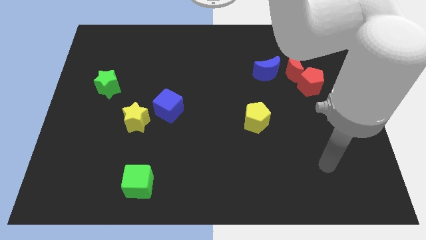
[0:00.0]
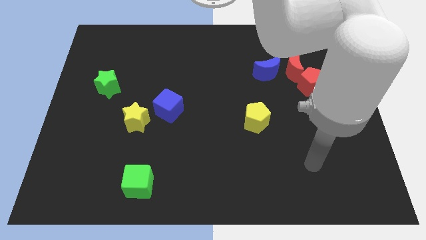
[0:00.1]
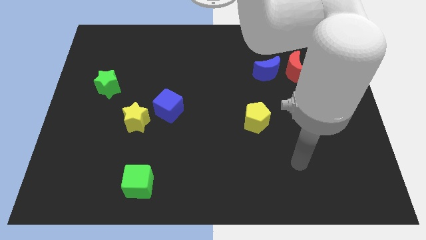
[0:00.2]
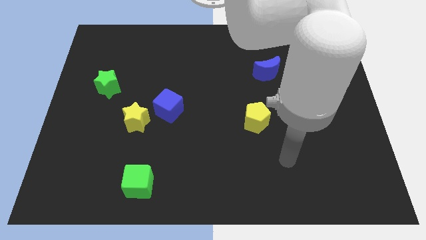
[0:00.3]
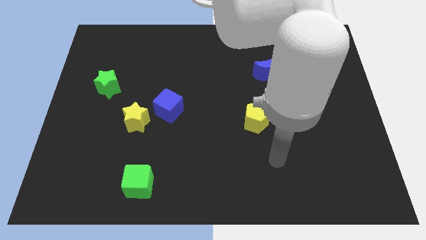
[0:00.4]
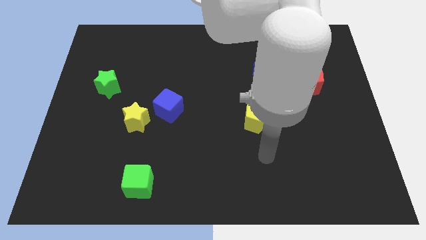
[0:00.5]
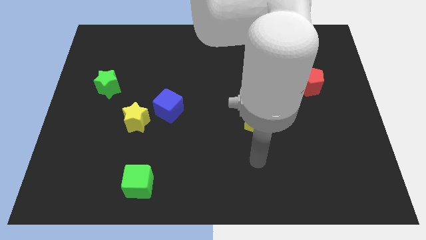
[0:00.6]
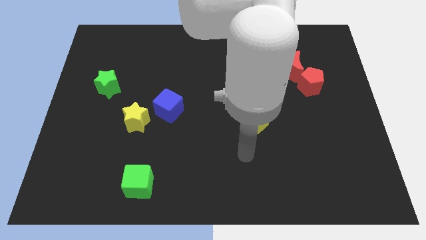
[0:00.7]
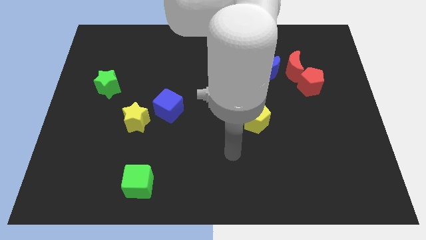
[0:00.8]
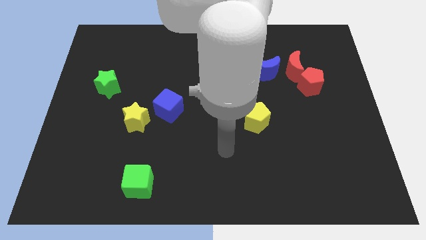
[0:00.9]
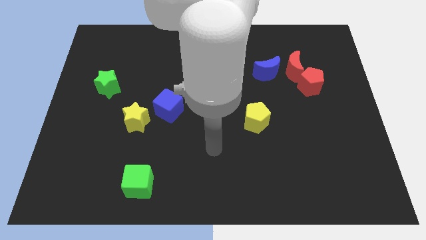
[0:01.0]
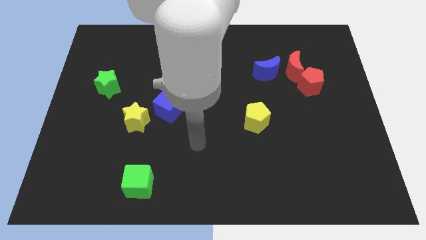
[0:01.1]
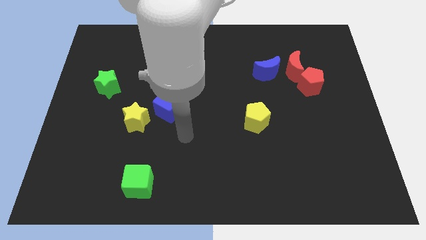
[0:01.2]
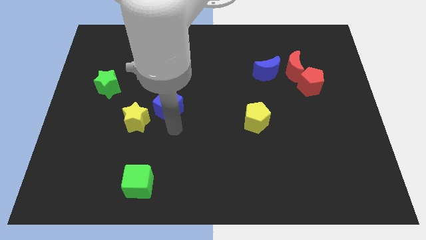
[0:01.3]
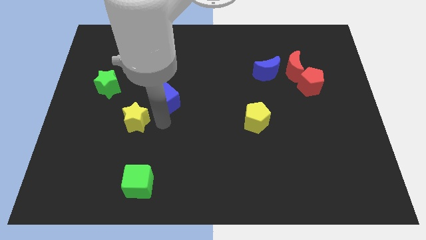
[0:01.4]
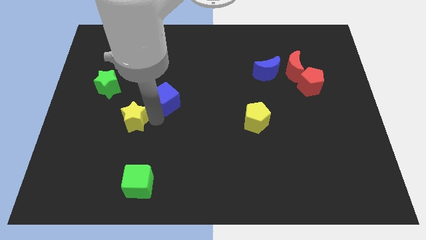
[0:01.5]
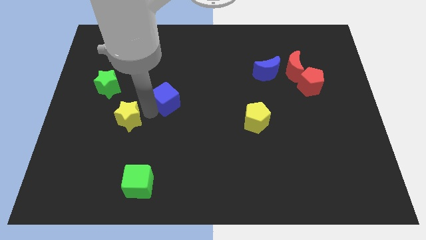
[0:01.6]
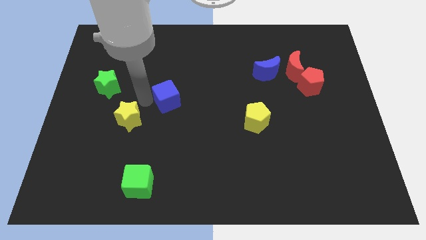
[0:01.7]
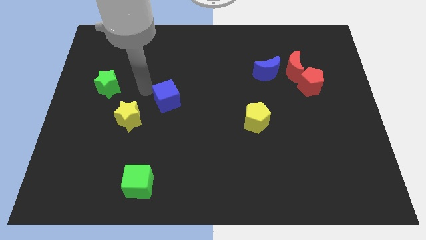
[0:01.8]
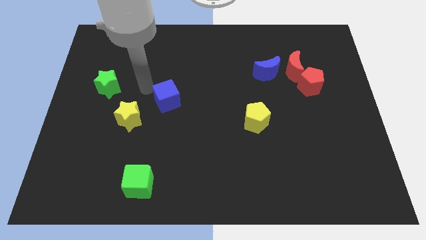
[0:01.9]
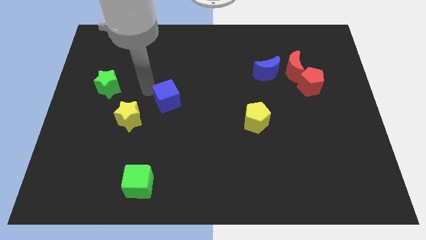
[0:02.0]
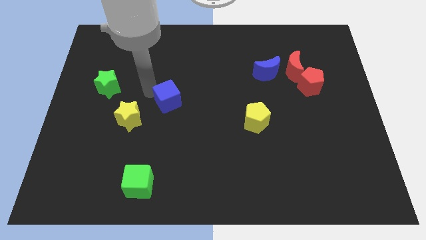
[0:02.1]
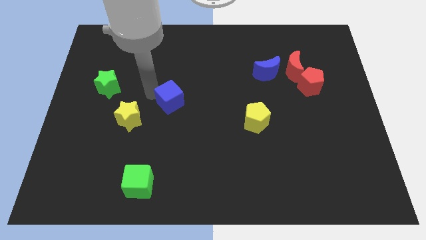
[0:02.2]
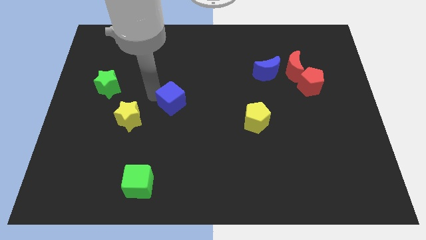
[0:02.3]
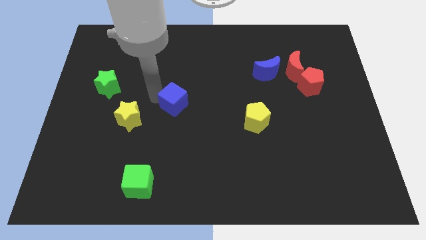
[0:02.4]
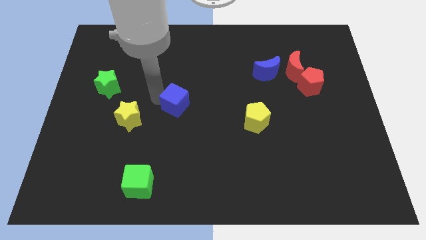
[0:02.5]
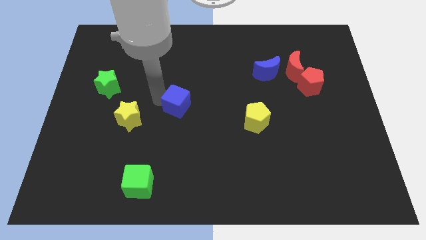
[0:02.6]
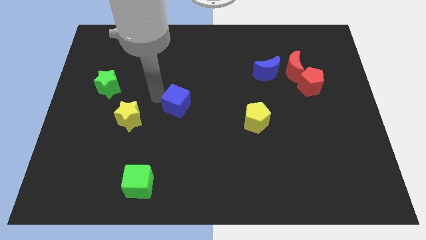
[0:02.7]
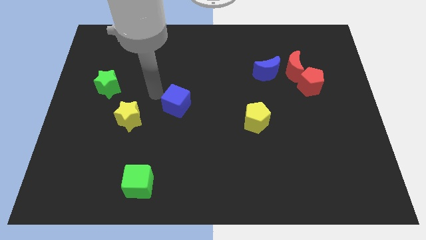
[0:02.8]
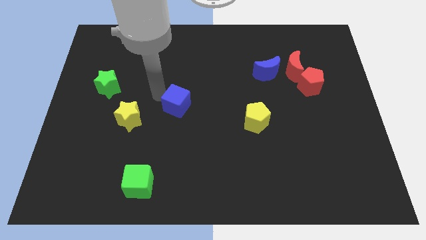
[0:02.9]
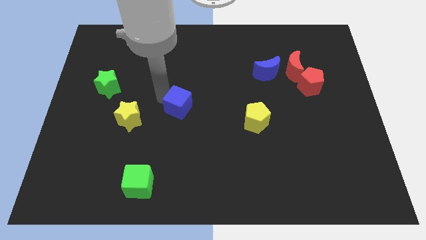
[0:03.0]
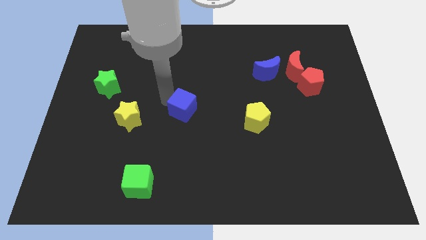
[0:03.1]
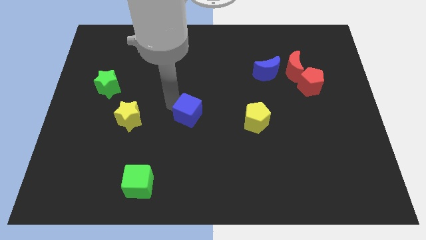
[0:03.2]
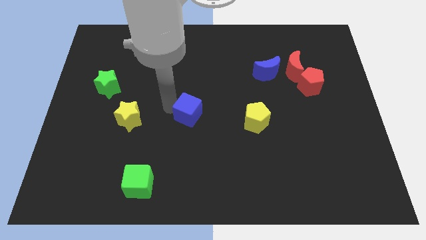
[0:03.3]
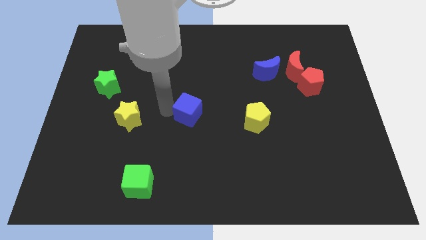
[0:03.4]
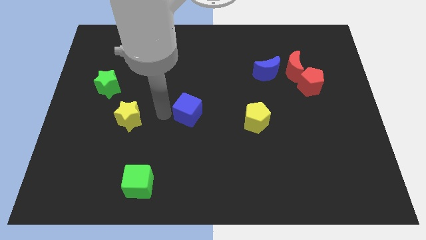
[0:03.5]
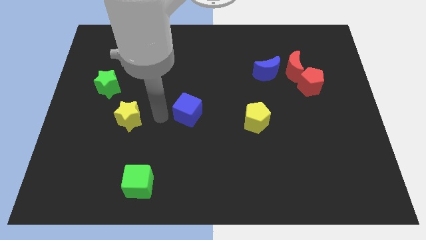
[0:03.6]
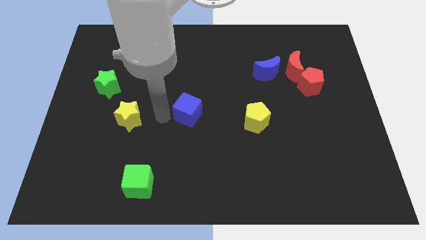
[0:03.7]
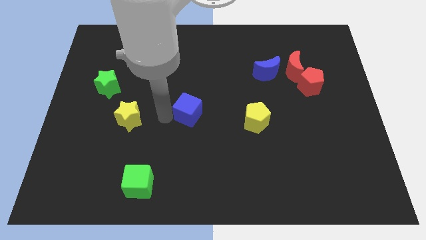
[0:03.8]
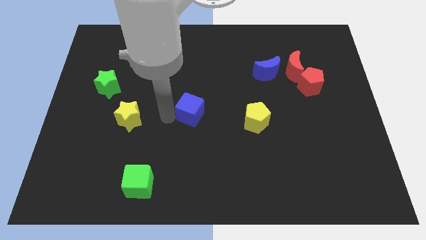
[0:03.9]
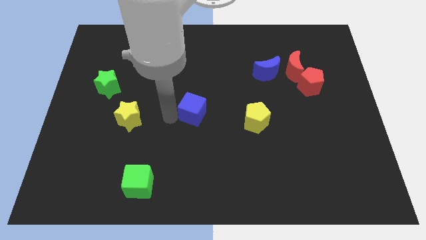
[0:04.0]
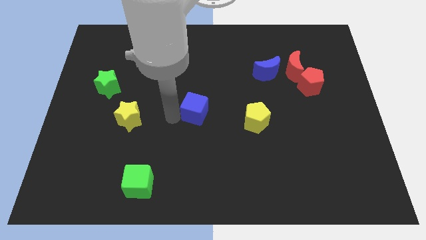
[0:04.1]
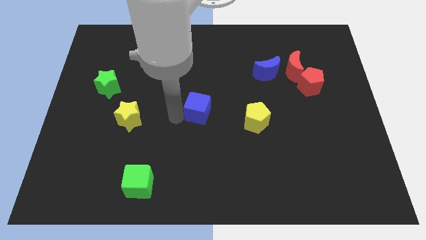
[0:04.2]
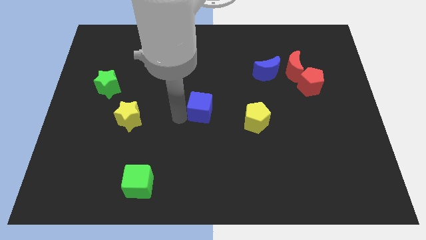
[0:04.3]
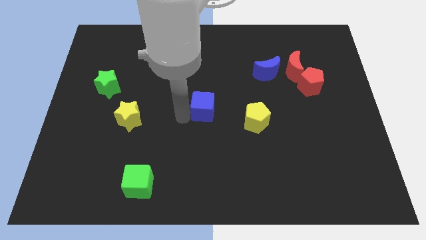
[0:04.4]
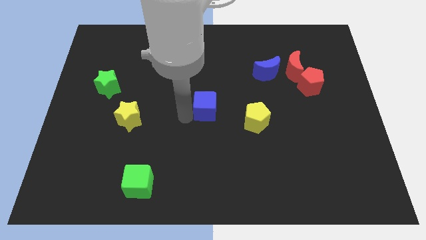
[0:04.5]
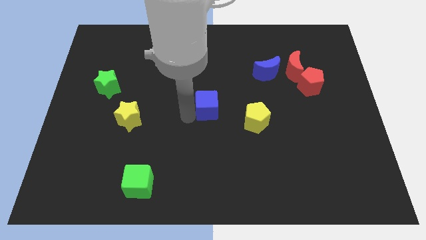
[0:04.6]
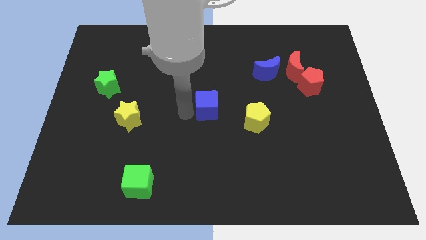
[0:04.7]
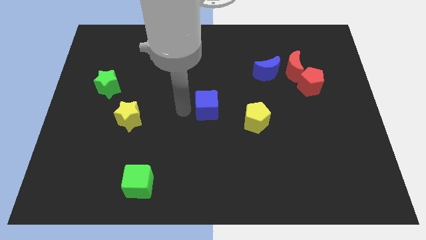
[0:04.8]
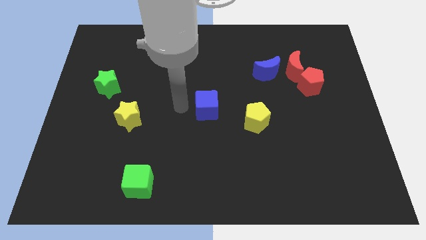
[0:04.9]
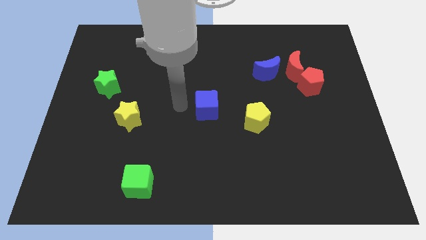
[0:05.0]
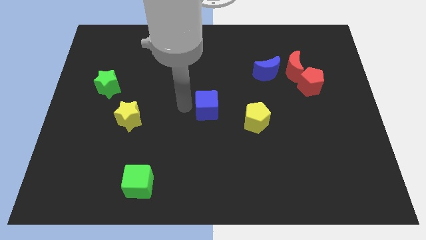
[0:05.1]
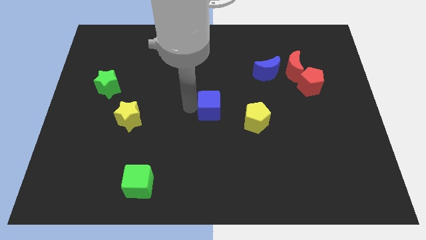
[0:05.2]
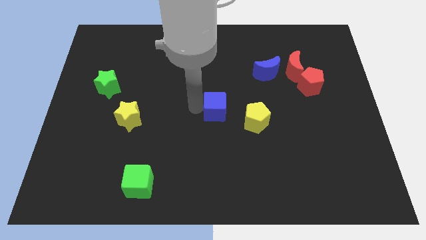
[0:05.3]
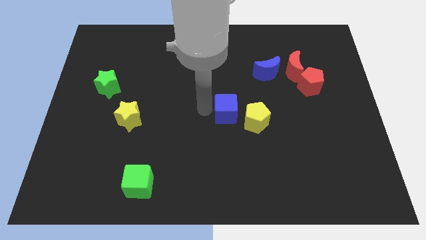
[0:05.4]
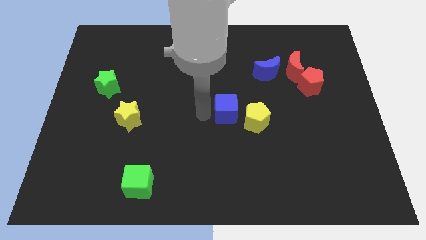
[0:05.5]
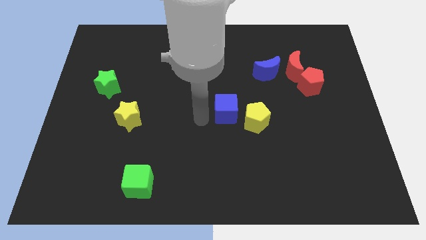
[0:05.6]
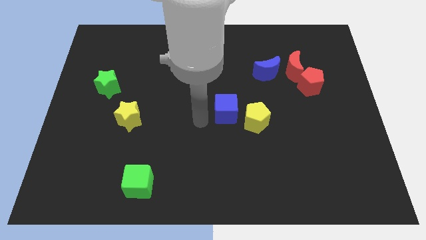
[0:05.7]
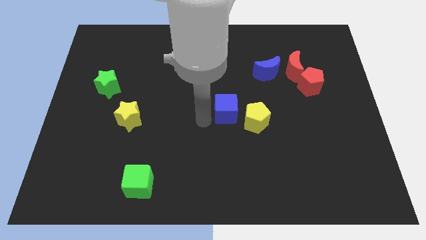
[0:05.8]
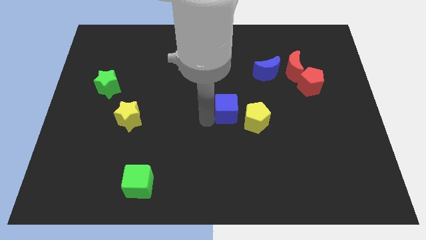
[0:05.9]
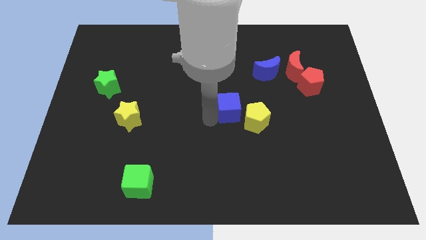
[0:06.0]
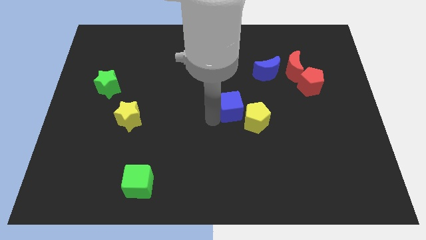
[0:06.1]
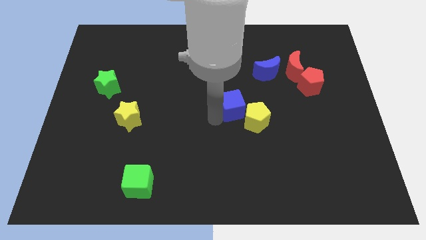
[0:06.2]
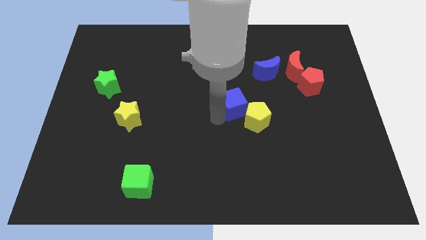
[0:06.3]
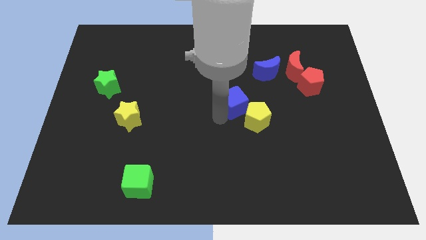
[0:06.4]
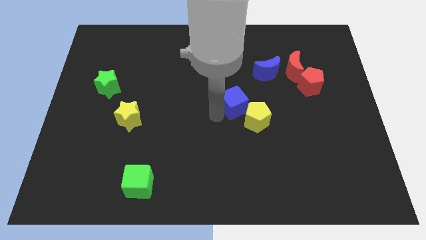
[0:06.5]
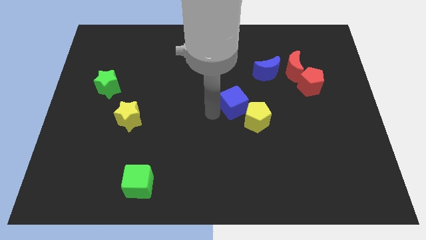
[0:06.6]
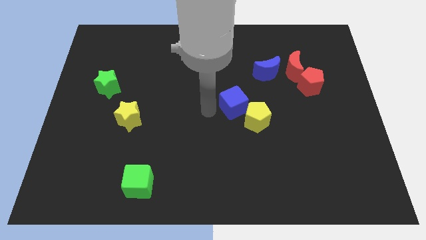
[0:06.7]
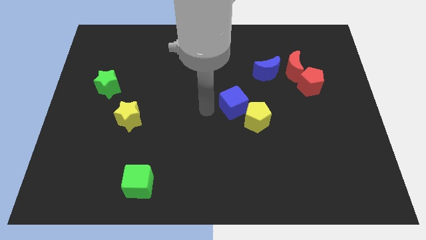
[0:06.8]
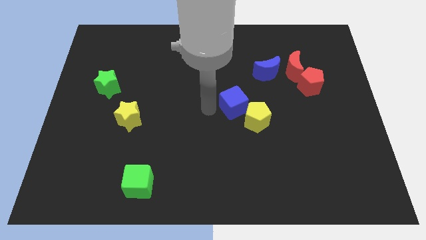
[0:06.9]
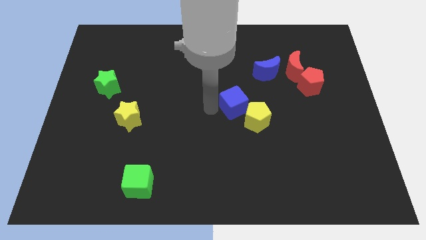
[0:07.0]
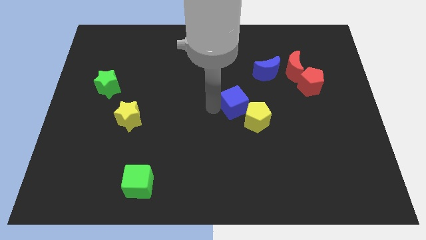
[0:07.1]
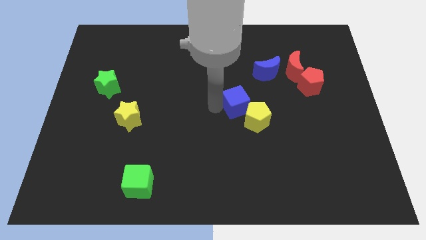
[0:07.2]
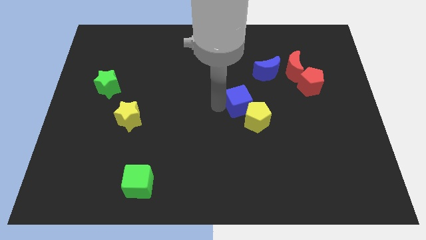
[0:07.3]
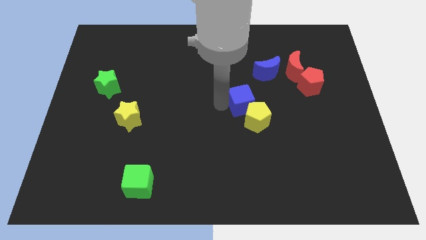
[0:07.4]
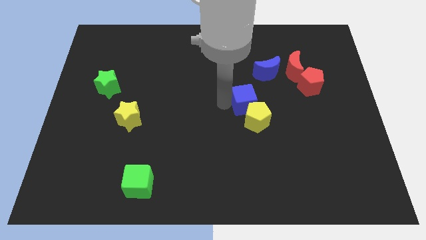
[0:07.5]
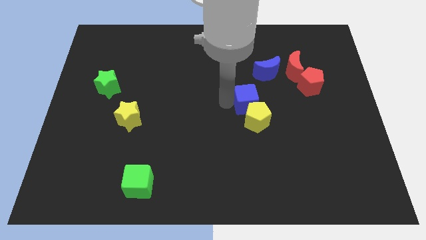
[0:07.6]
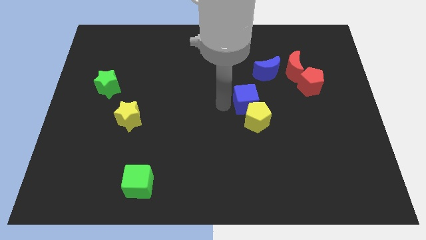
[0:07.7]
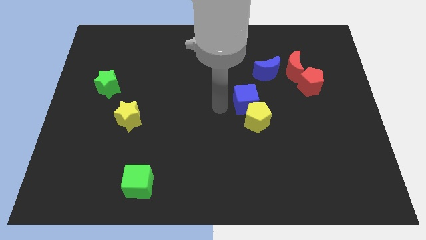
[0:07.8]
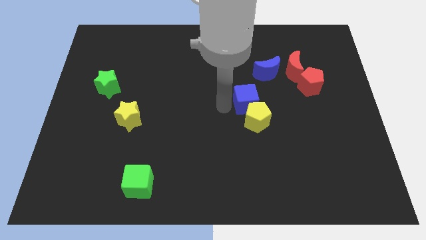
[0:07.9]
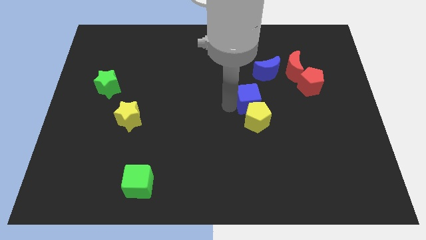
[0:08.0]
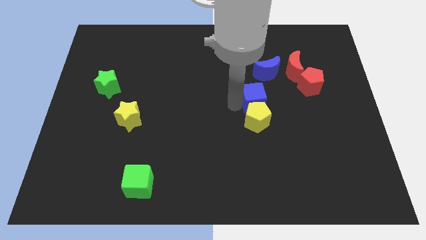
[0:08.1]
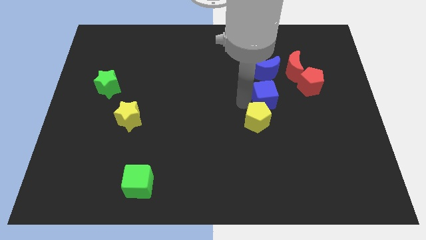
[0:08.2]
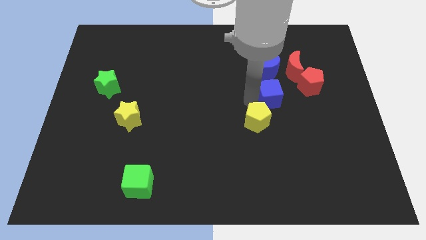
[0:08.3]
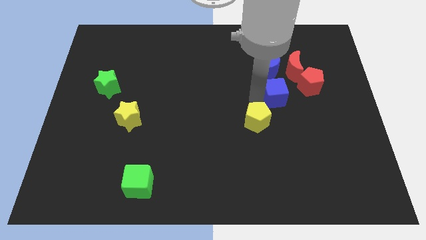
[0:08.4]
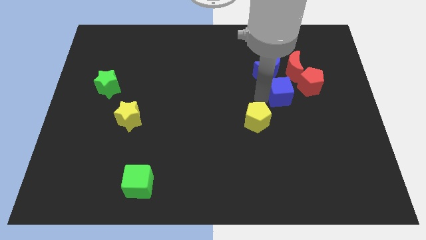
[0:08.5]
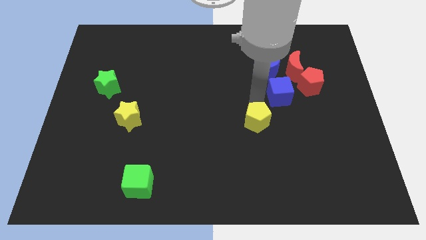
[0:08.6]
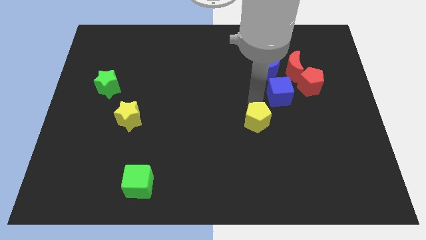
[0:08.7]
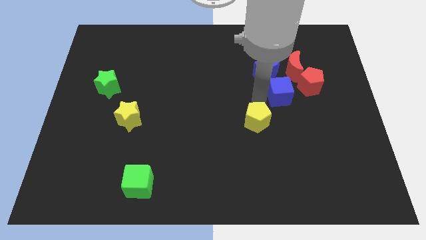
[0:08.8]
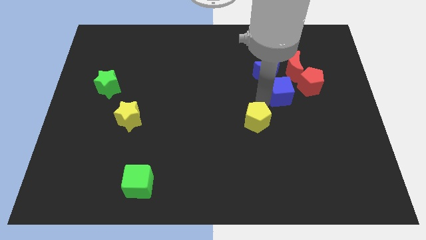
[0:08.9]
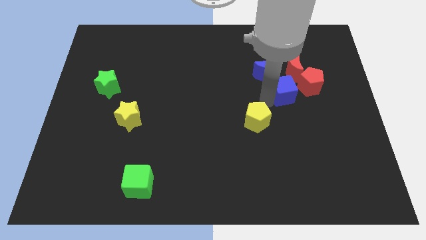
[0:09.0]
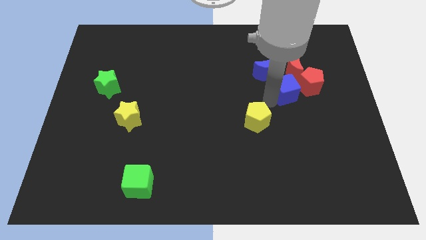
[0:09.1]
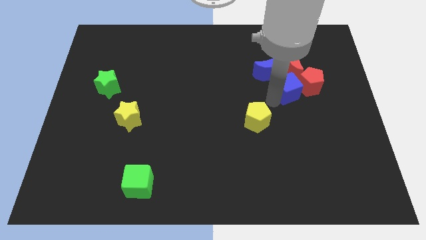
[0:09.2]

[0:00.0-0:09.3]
push the blue cube towards the red pentagon
